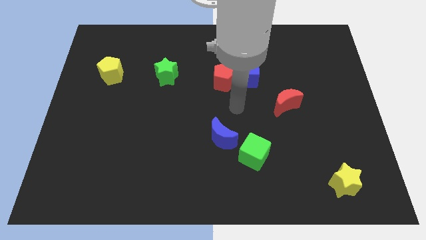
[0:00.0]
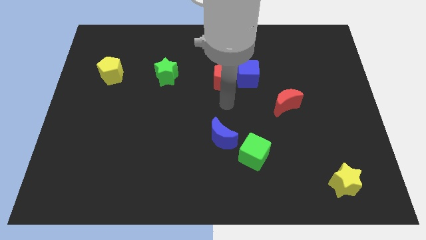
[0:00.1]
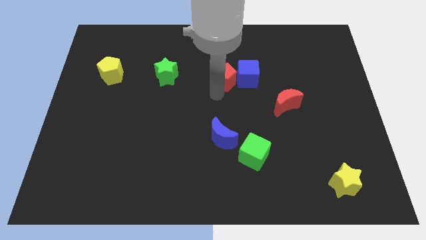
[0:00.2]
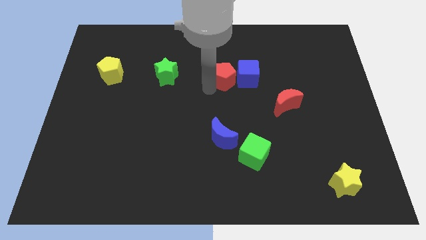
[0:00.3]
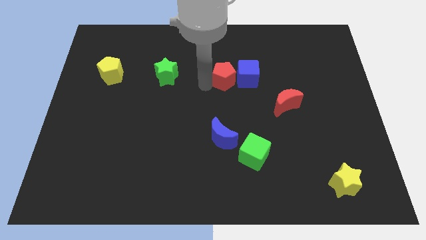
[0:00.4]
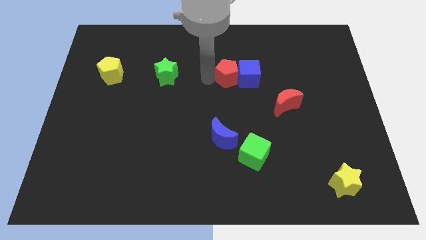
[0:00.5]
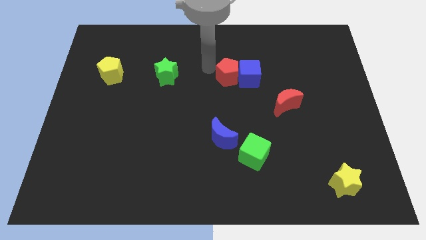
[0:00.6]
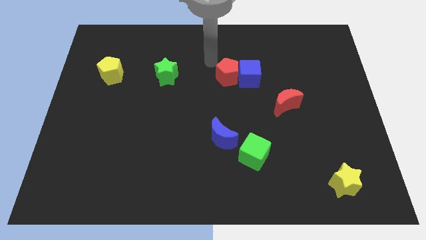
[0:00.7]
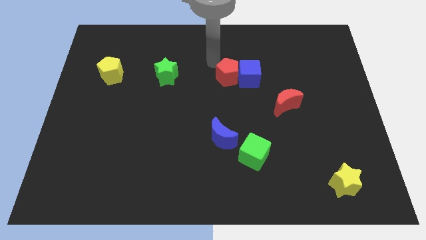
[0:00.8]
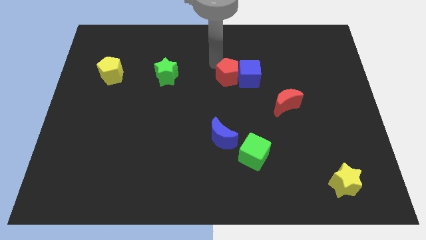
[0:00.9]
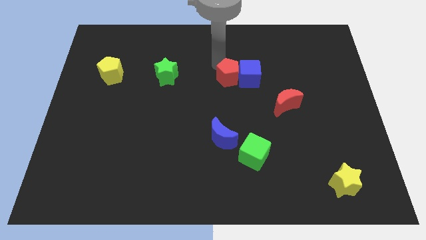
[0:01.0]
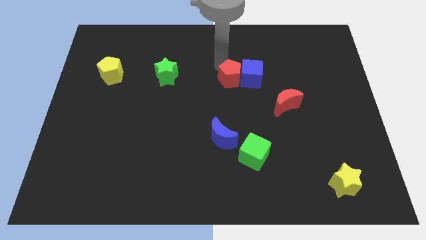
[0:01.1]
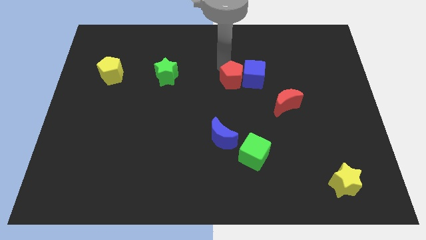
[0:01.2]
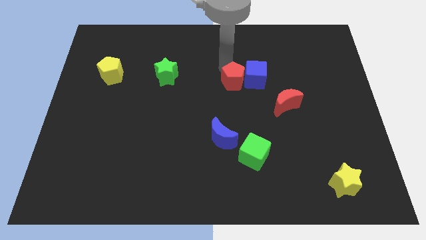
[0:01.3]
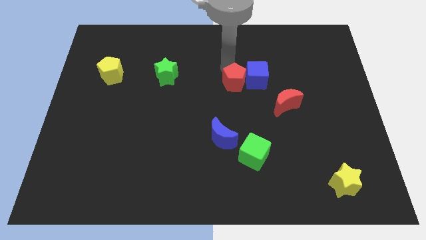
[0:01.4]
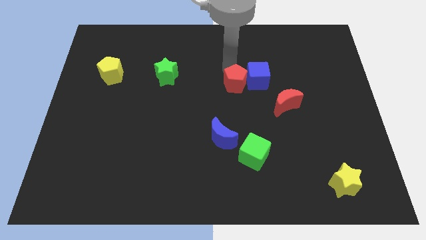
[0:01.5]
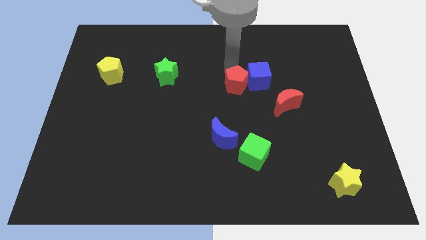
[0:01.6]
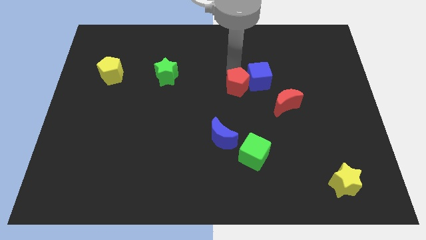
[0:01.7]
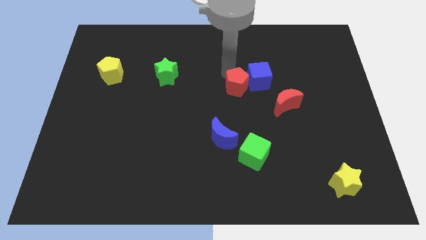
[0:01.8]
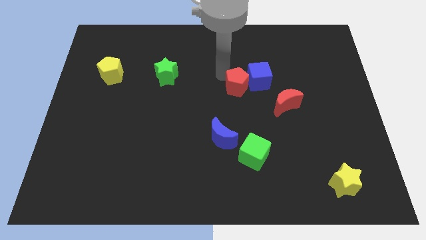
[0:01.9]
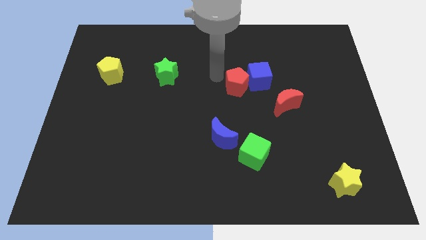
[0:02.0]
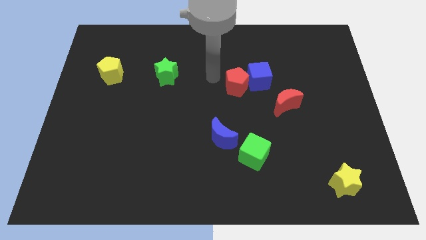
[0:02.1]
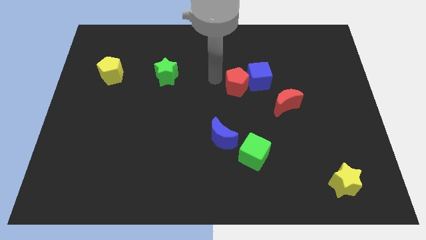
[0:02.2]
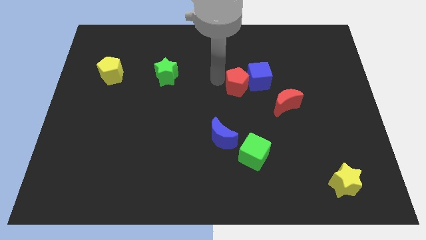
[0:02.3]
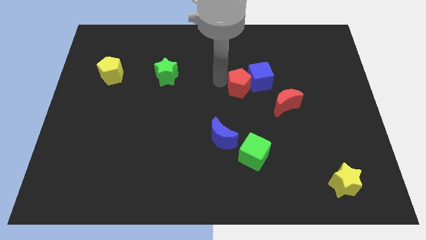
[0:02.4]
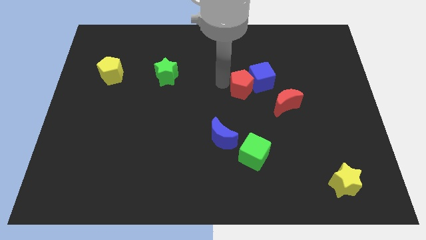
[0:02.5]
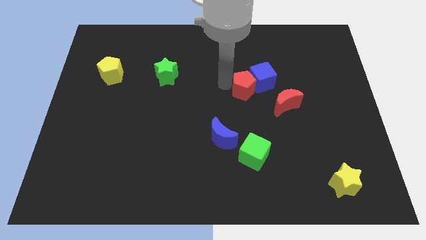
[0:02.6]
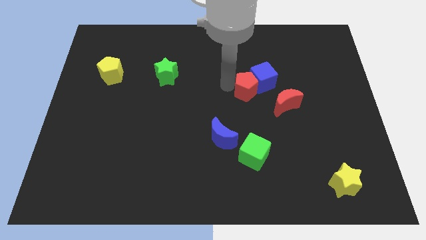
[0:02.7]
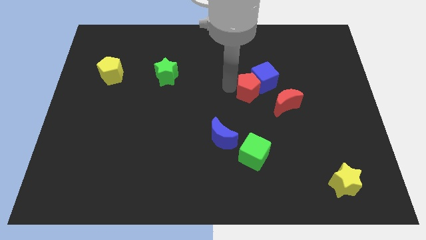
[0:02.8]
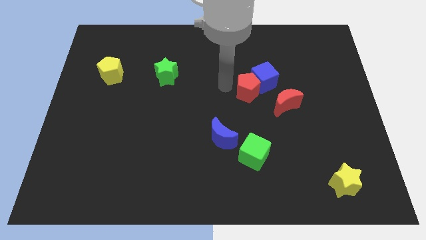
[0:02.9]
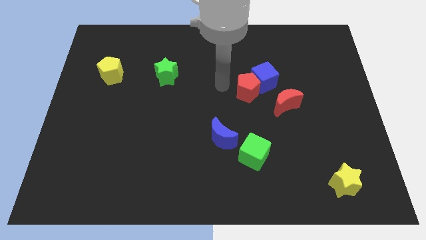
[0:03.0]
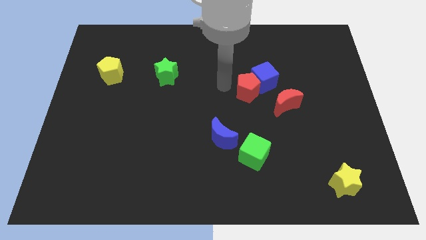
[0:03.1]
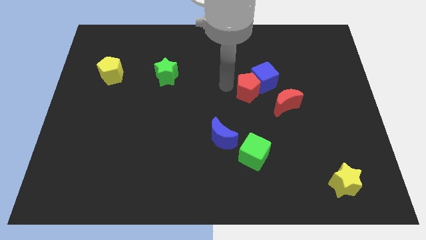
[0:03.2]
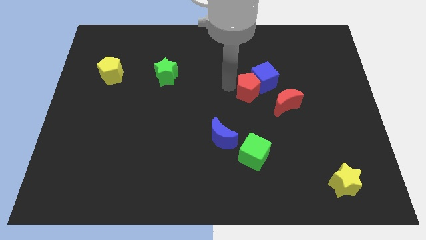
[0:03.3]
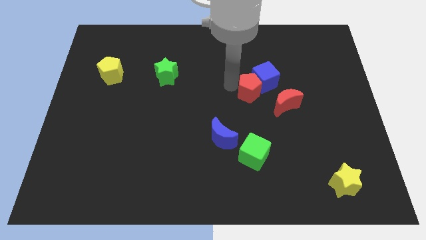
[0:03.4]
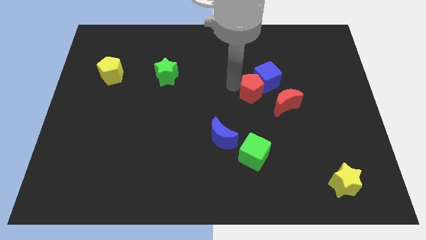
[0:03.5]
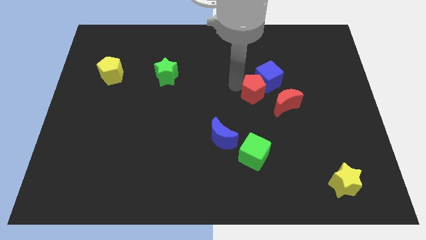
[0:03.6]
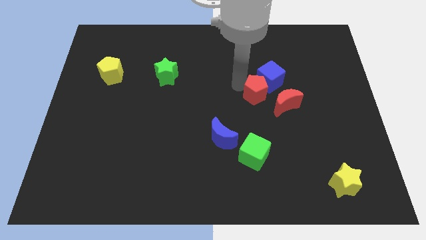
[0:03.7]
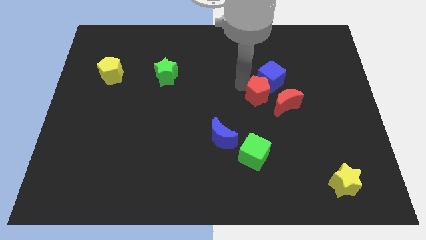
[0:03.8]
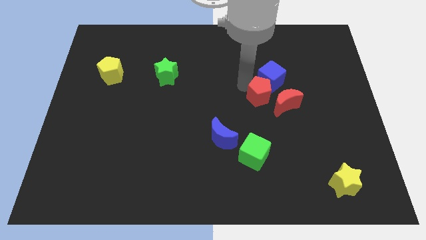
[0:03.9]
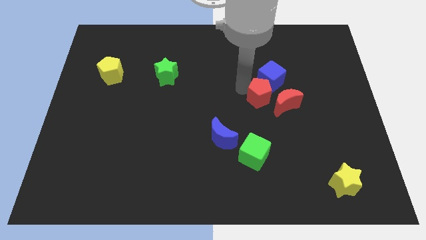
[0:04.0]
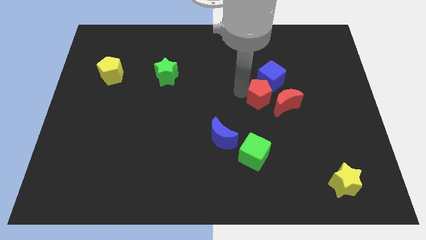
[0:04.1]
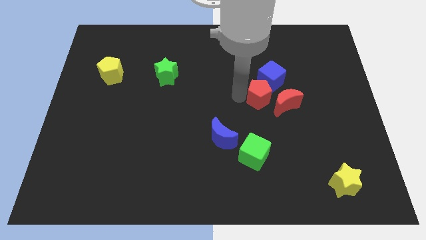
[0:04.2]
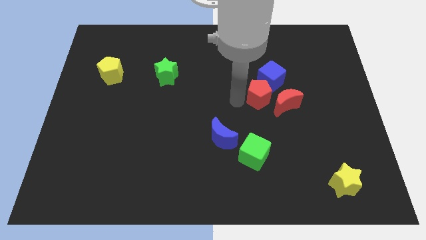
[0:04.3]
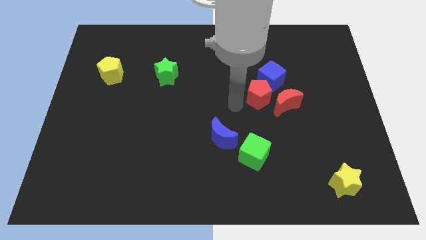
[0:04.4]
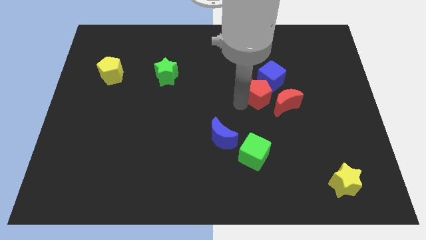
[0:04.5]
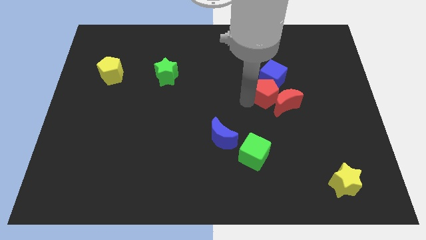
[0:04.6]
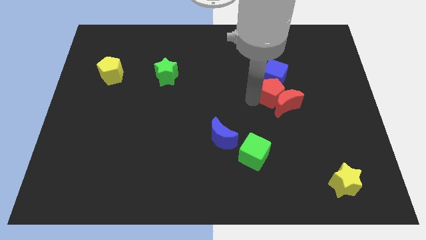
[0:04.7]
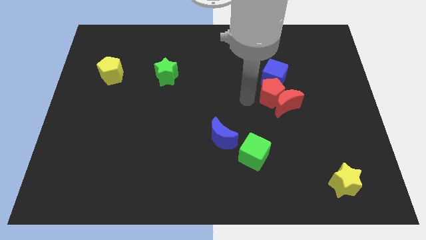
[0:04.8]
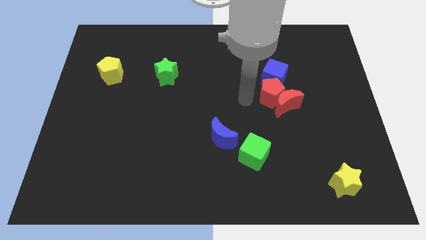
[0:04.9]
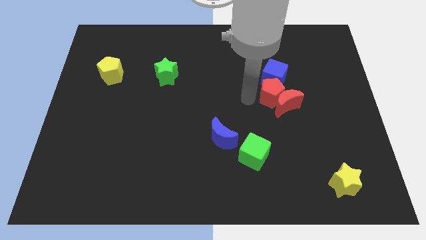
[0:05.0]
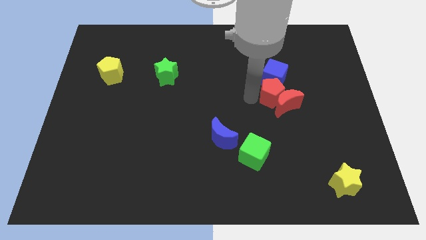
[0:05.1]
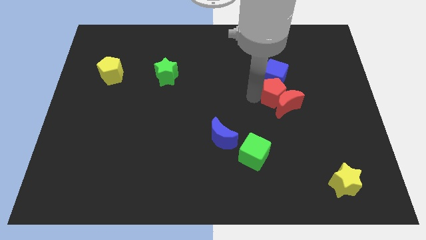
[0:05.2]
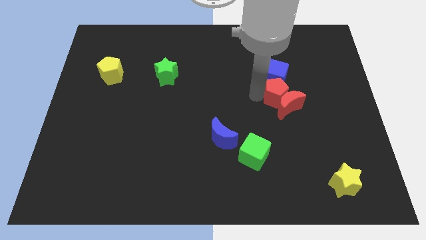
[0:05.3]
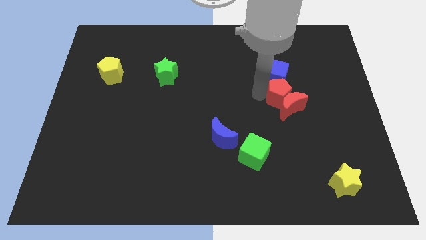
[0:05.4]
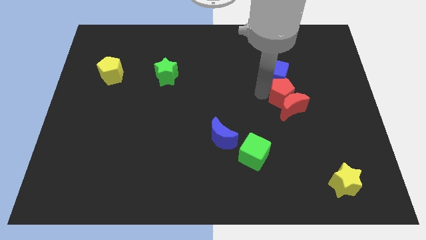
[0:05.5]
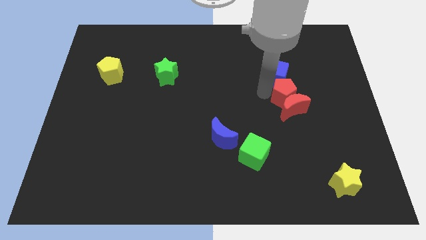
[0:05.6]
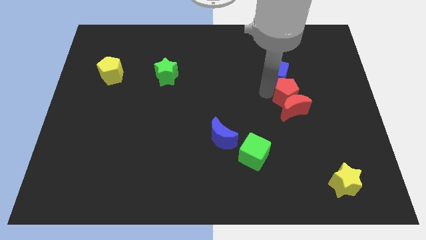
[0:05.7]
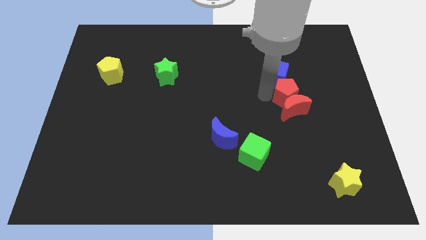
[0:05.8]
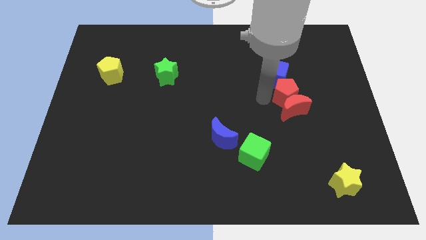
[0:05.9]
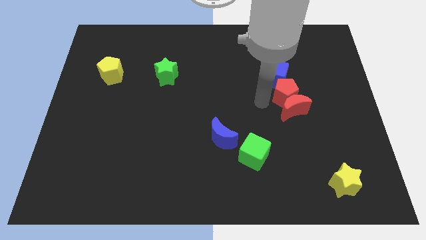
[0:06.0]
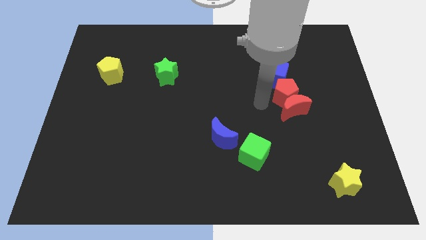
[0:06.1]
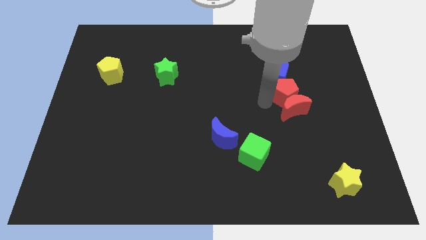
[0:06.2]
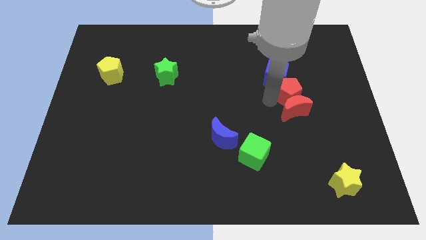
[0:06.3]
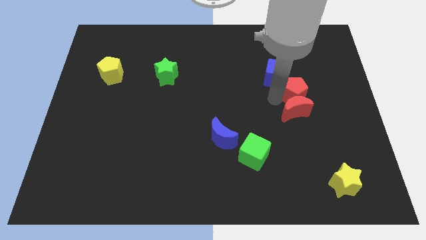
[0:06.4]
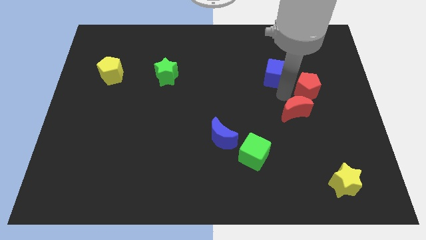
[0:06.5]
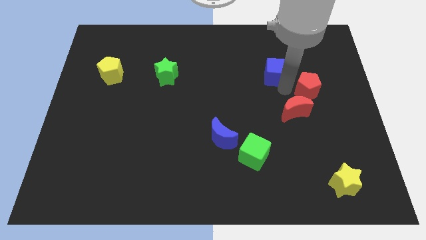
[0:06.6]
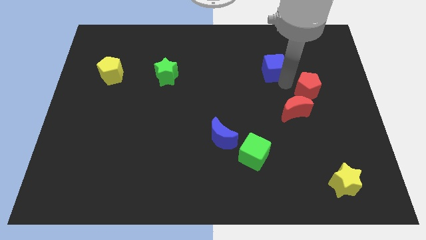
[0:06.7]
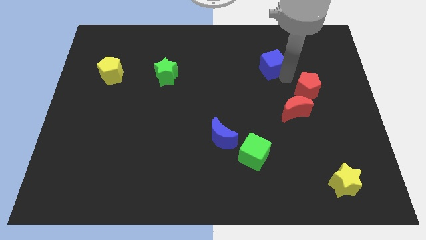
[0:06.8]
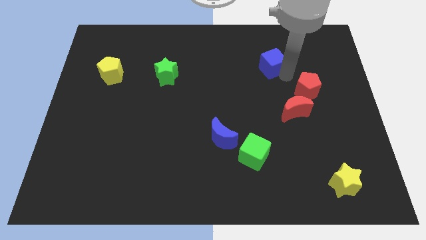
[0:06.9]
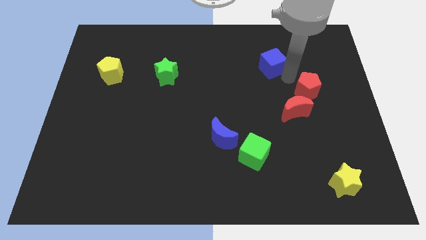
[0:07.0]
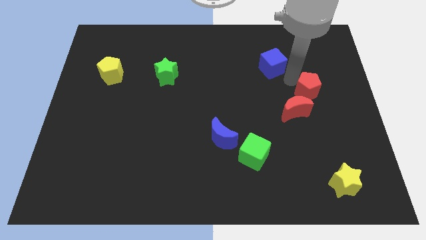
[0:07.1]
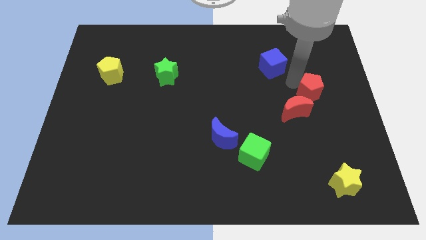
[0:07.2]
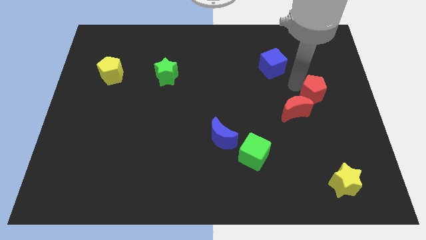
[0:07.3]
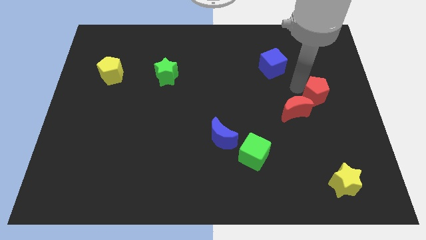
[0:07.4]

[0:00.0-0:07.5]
push the red pentagon to the right of the red moon

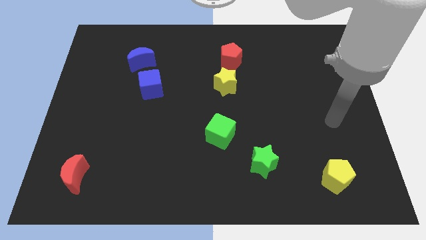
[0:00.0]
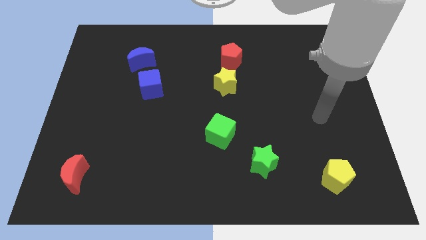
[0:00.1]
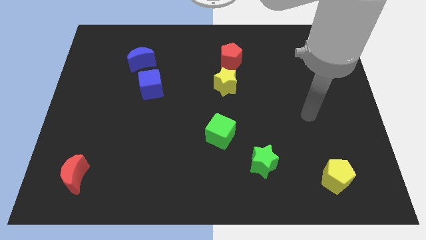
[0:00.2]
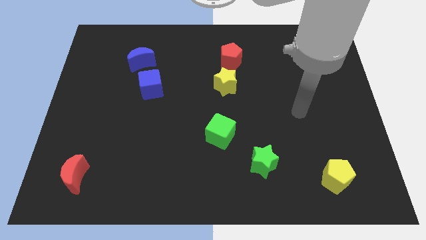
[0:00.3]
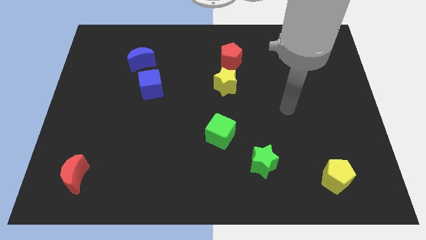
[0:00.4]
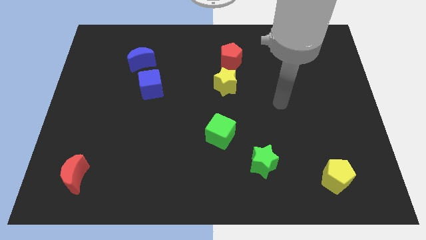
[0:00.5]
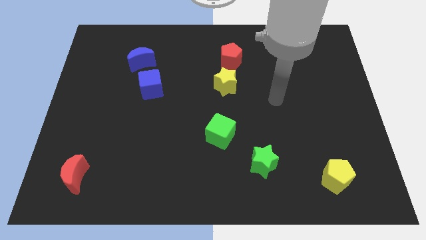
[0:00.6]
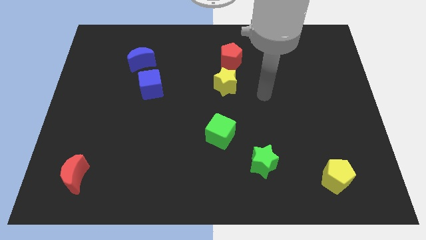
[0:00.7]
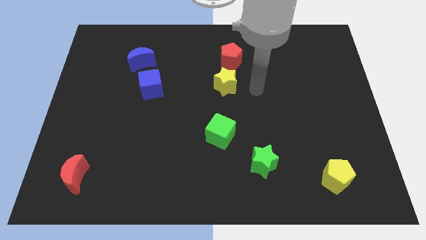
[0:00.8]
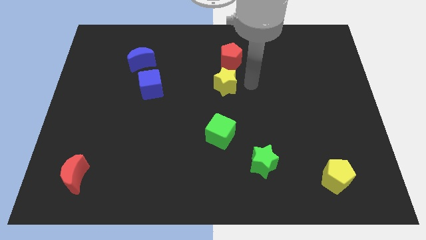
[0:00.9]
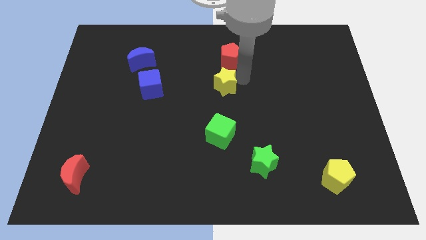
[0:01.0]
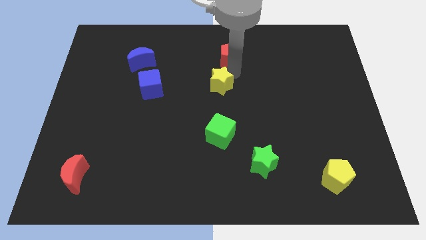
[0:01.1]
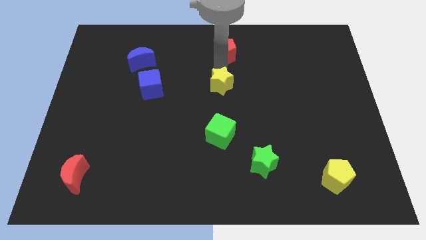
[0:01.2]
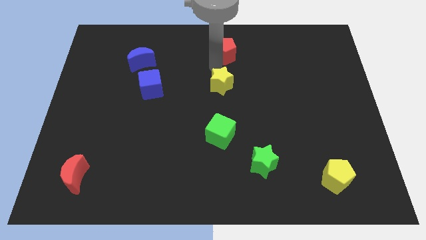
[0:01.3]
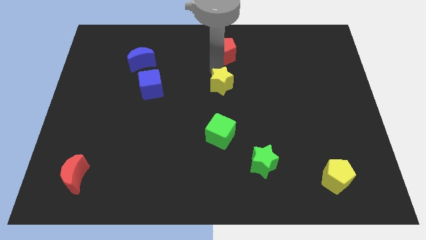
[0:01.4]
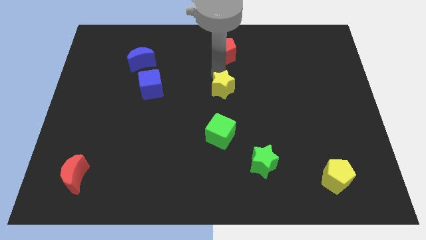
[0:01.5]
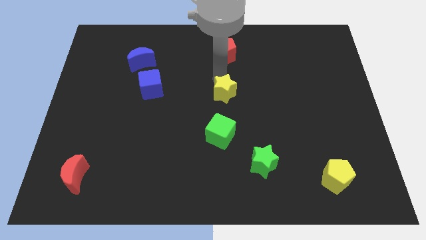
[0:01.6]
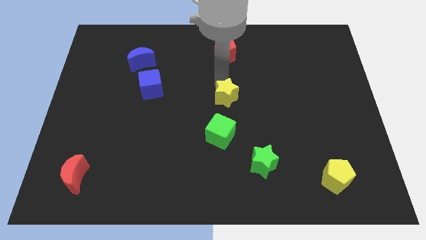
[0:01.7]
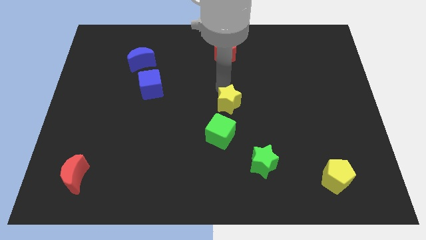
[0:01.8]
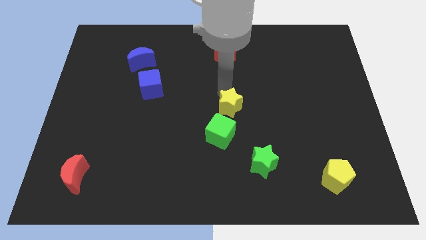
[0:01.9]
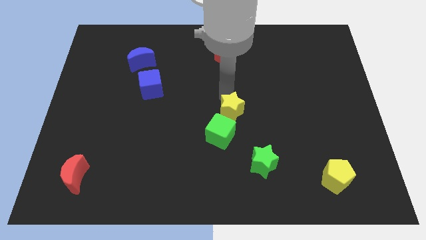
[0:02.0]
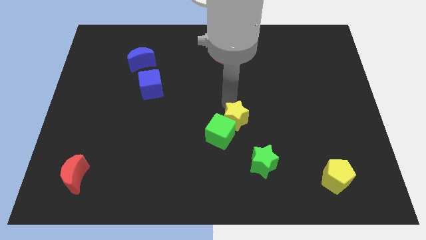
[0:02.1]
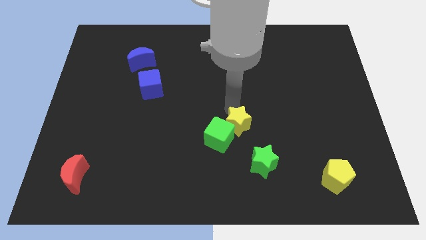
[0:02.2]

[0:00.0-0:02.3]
move the yellow star to the top left side of the green star
